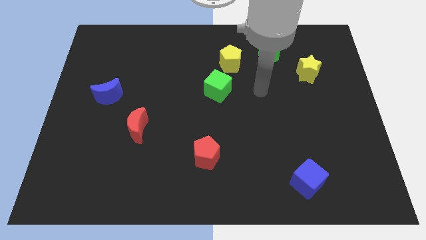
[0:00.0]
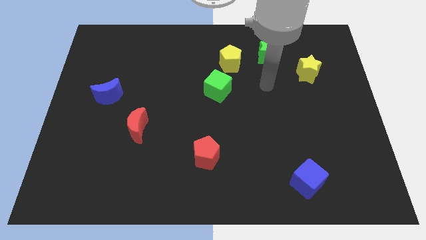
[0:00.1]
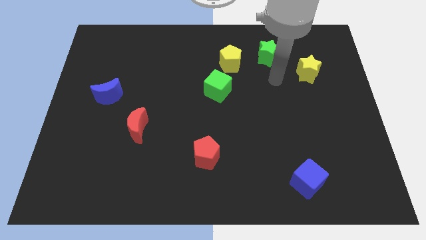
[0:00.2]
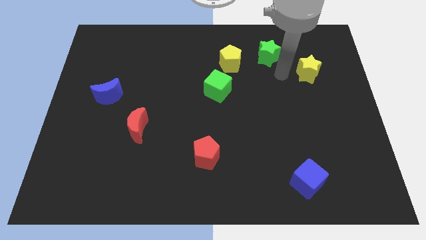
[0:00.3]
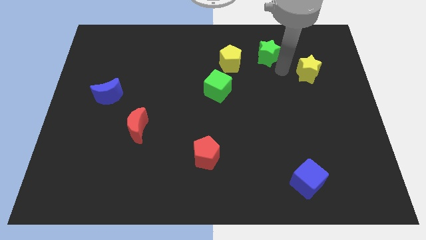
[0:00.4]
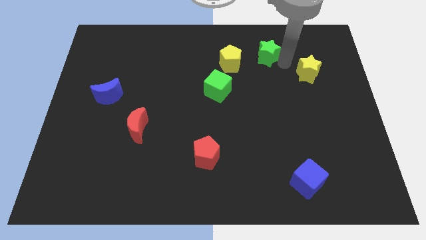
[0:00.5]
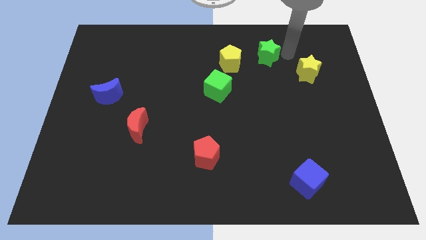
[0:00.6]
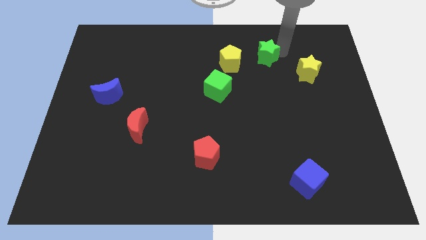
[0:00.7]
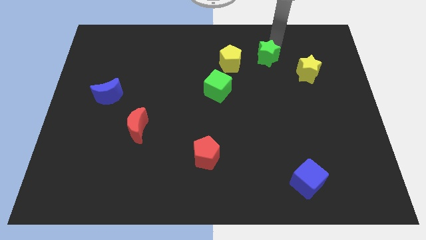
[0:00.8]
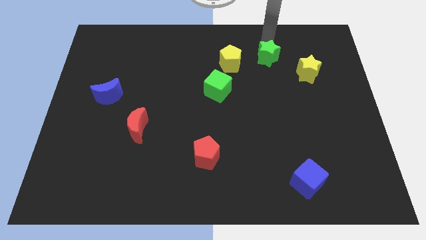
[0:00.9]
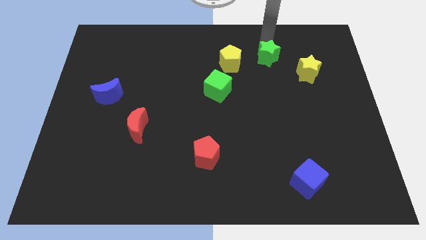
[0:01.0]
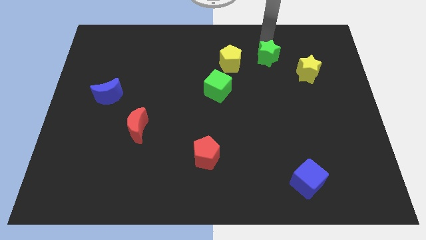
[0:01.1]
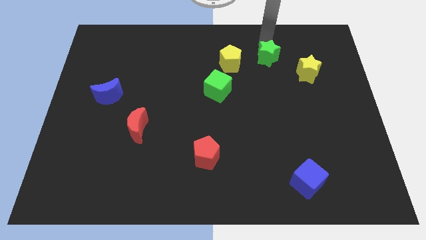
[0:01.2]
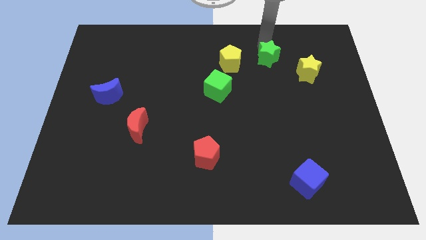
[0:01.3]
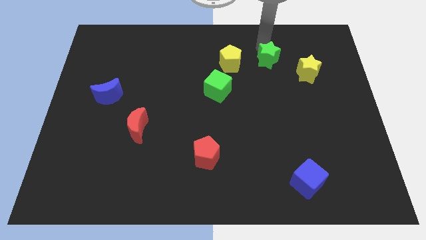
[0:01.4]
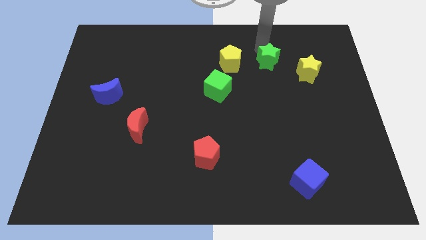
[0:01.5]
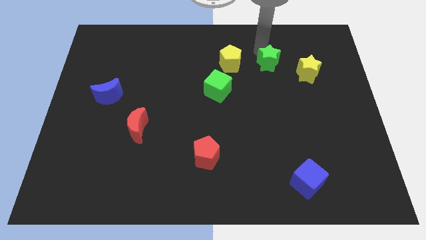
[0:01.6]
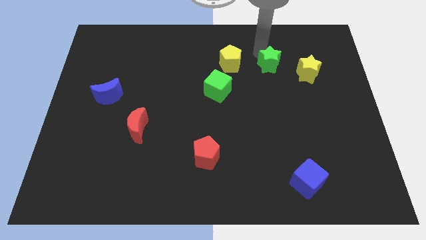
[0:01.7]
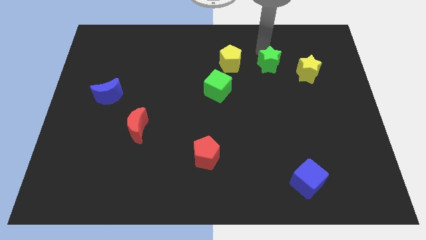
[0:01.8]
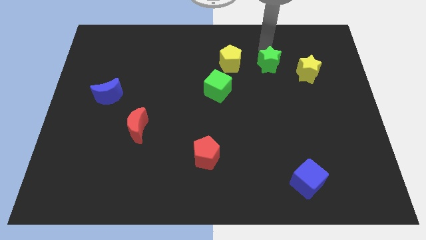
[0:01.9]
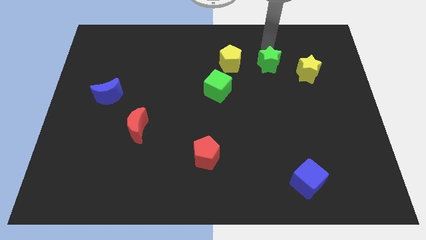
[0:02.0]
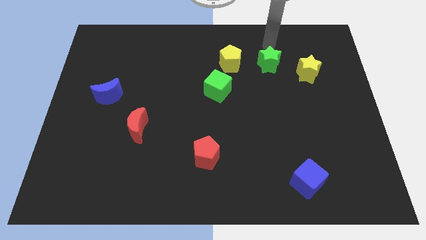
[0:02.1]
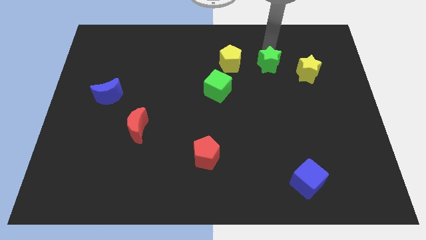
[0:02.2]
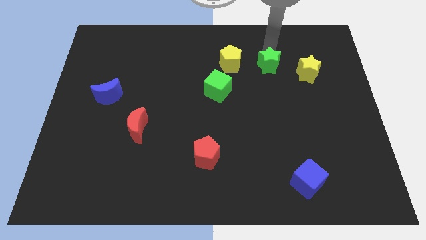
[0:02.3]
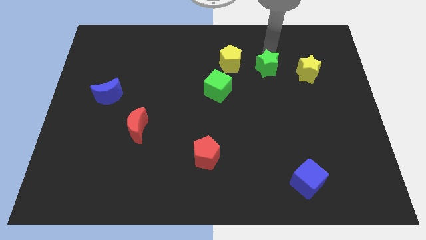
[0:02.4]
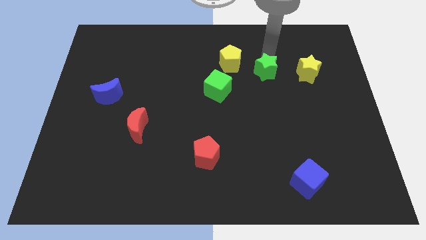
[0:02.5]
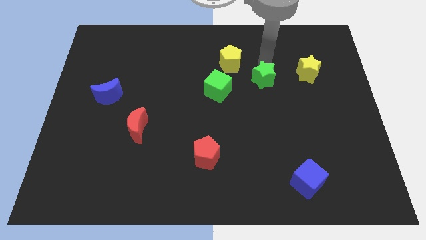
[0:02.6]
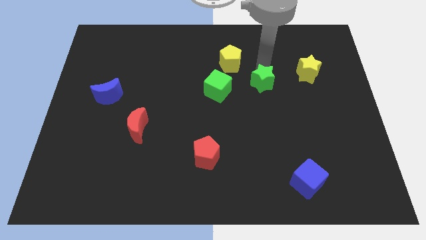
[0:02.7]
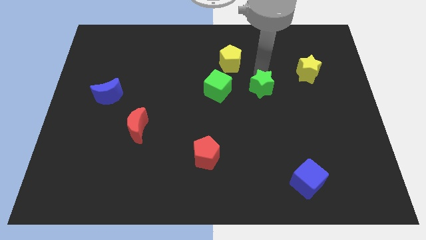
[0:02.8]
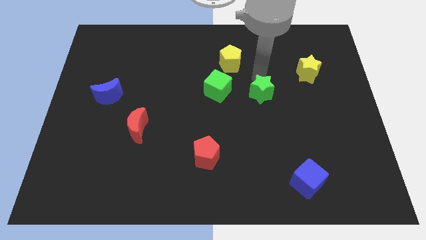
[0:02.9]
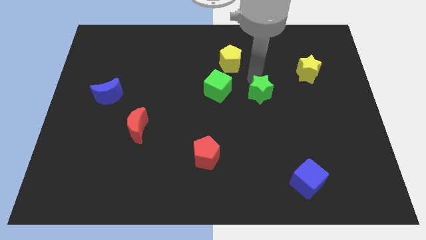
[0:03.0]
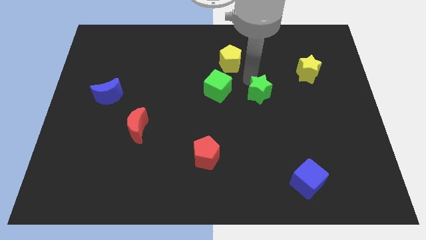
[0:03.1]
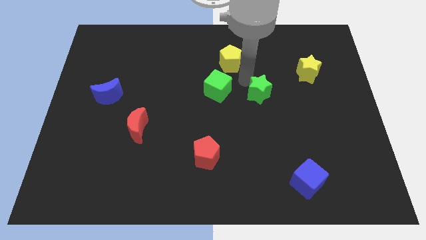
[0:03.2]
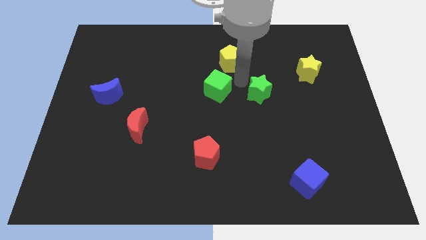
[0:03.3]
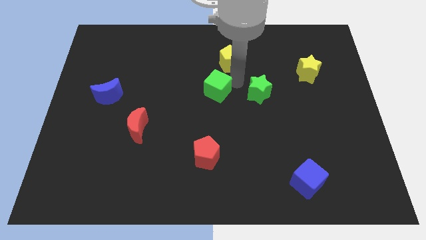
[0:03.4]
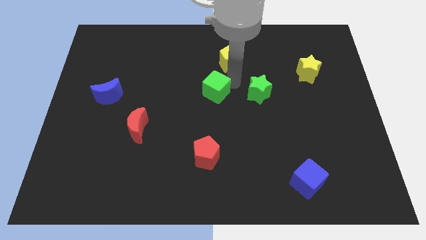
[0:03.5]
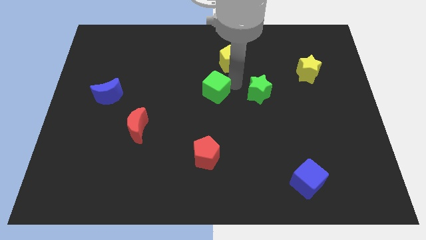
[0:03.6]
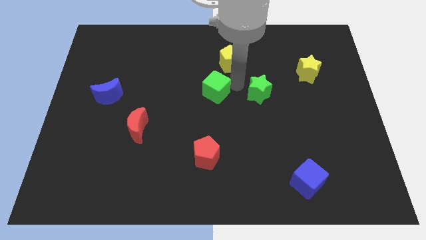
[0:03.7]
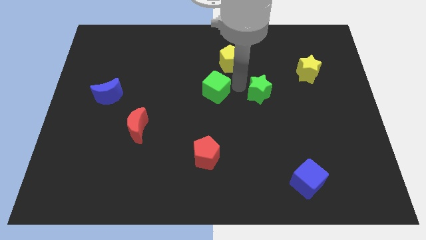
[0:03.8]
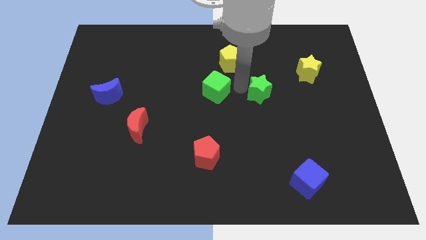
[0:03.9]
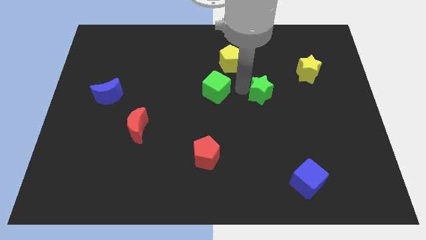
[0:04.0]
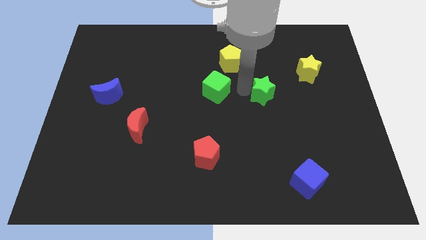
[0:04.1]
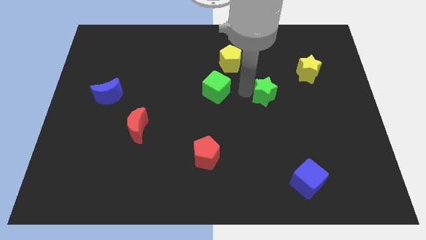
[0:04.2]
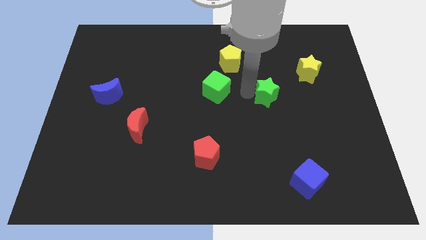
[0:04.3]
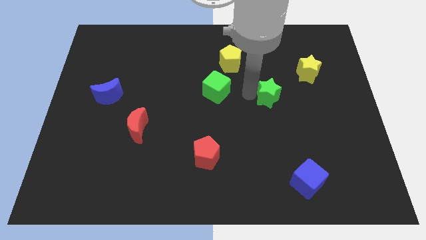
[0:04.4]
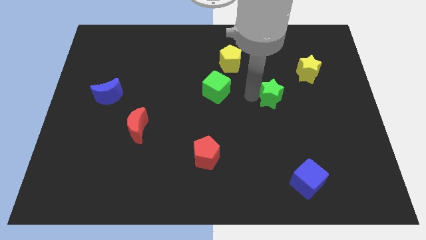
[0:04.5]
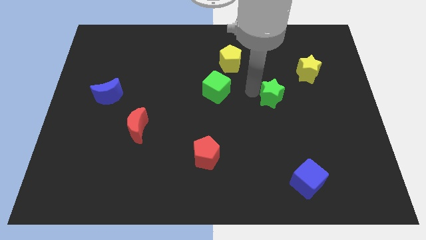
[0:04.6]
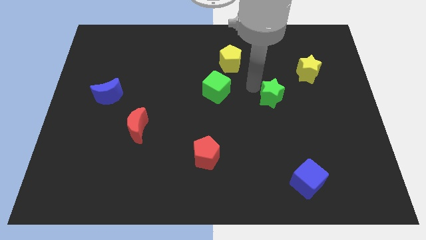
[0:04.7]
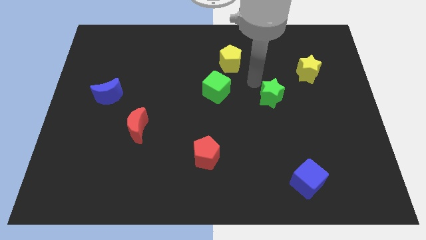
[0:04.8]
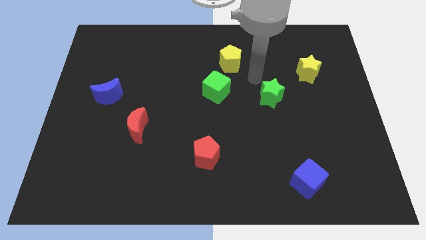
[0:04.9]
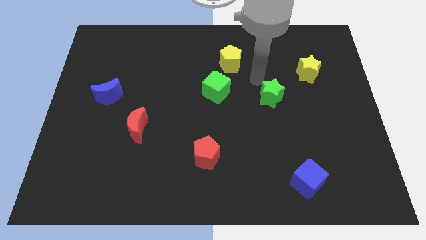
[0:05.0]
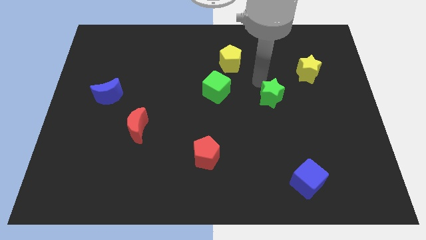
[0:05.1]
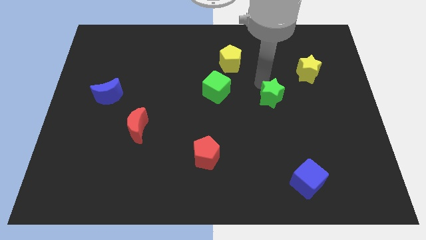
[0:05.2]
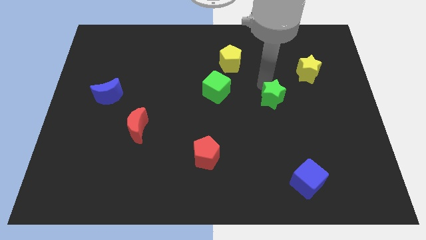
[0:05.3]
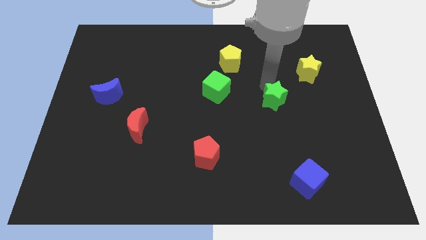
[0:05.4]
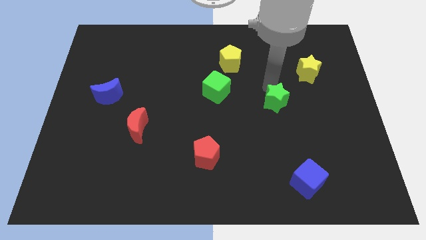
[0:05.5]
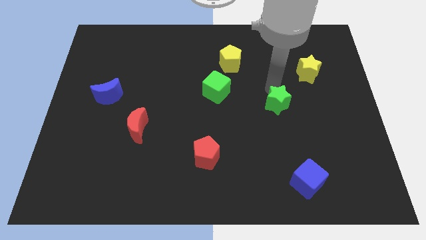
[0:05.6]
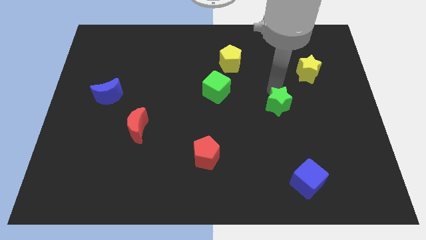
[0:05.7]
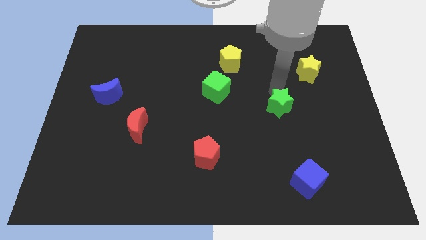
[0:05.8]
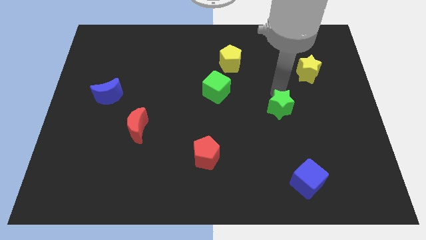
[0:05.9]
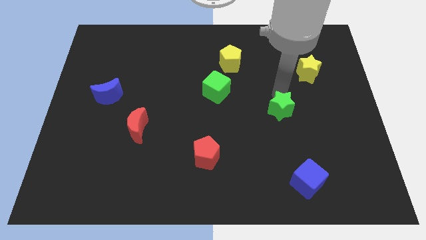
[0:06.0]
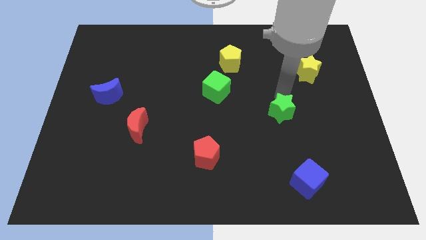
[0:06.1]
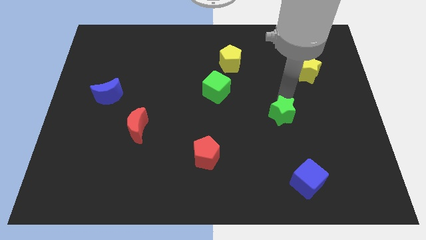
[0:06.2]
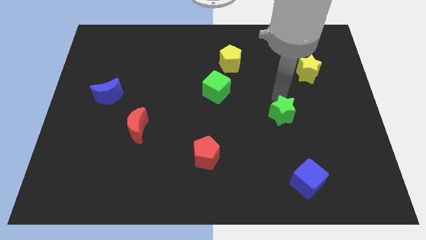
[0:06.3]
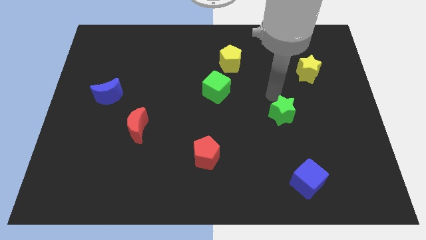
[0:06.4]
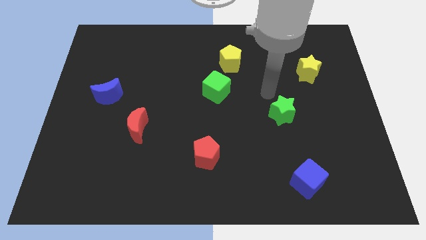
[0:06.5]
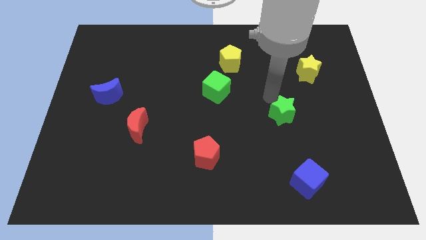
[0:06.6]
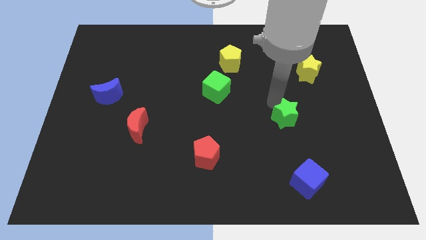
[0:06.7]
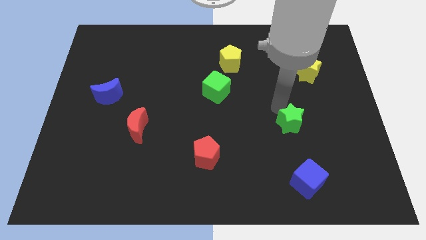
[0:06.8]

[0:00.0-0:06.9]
push the green star above the blue cube

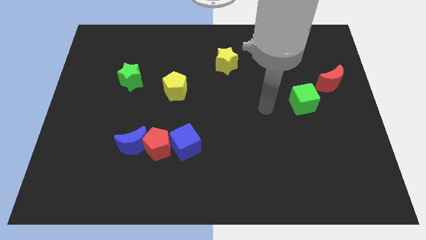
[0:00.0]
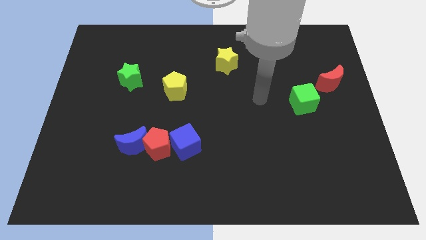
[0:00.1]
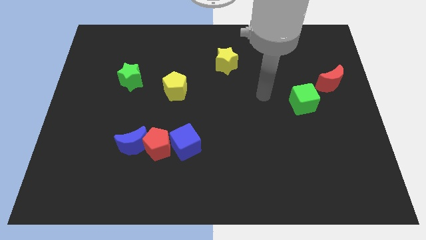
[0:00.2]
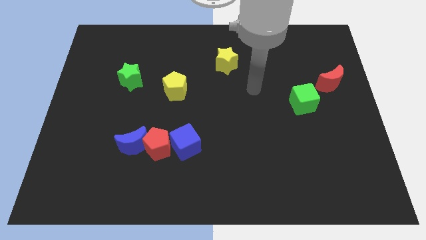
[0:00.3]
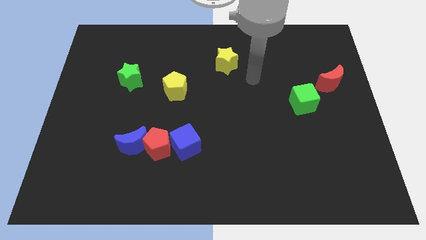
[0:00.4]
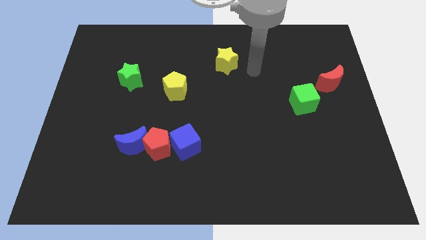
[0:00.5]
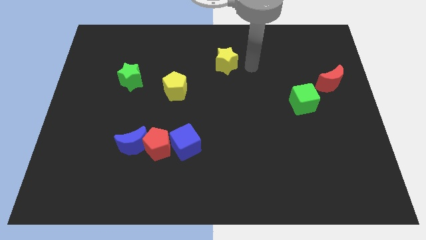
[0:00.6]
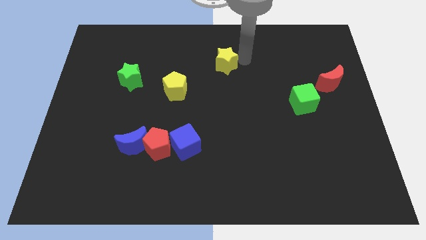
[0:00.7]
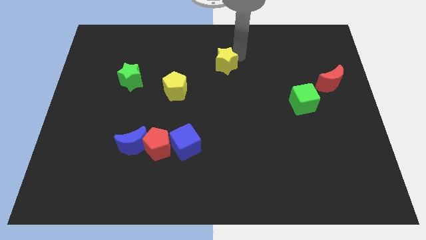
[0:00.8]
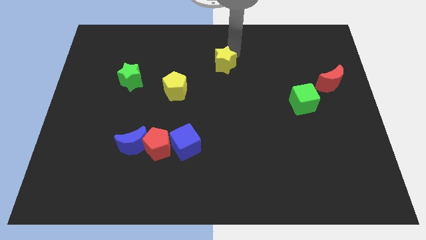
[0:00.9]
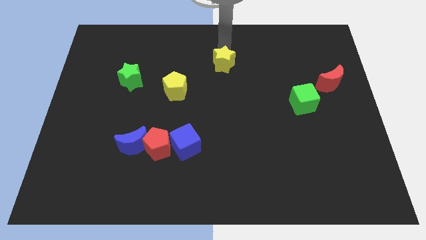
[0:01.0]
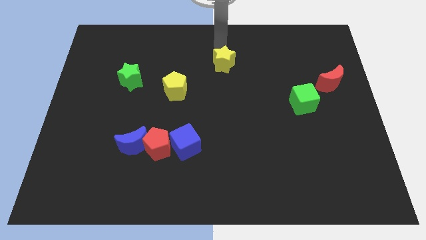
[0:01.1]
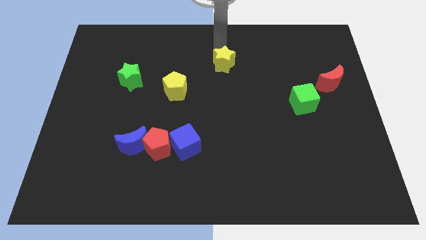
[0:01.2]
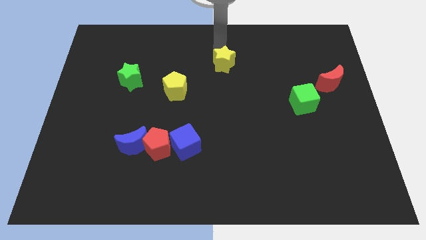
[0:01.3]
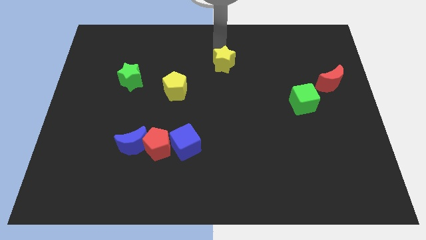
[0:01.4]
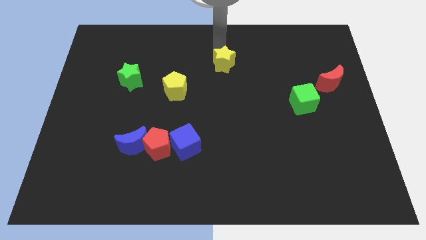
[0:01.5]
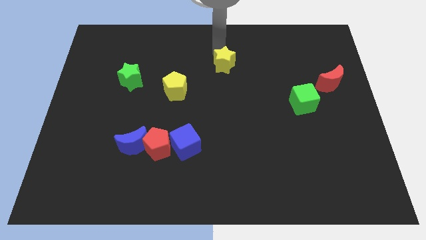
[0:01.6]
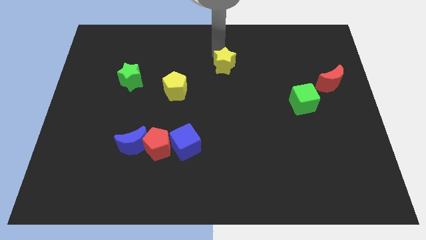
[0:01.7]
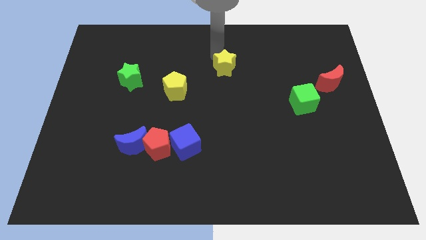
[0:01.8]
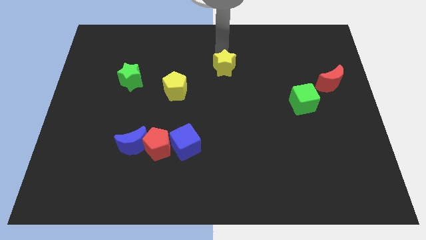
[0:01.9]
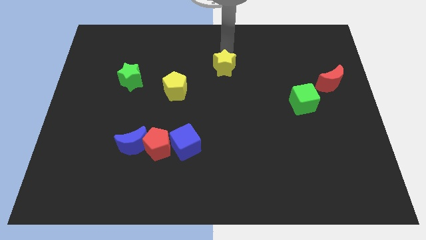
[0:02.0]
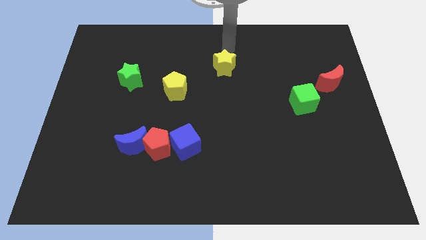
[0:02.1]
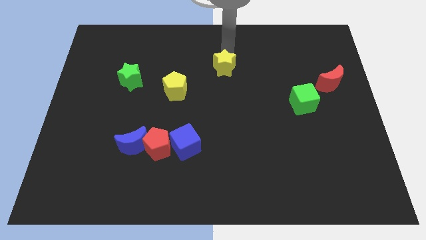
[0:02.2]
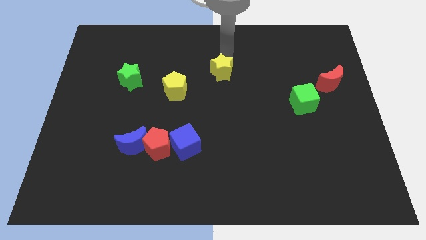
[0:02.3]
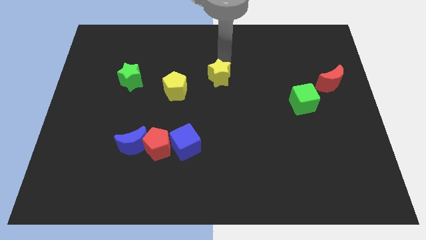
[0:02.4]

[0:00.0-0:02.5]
put the yellow star right of the yellow pentagon
